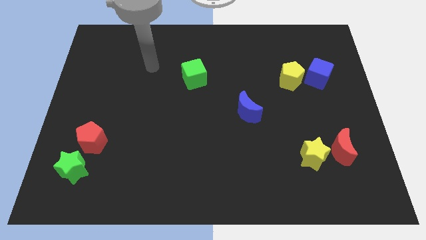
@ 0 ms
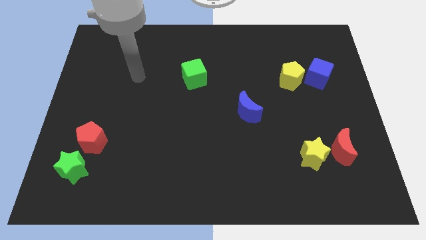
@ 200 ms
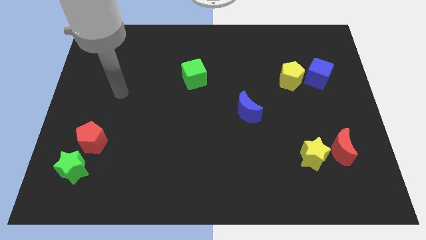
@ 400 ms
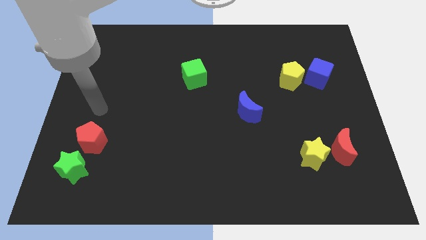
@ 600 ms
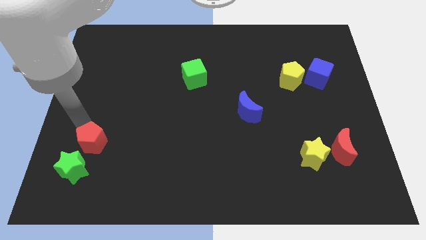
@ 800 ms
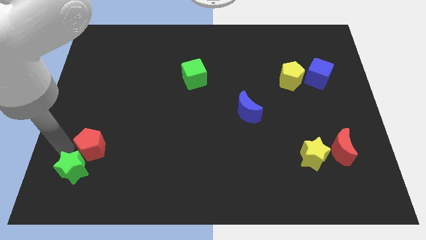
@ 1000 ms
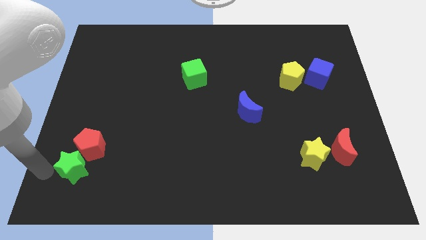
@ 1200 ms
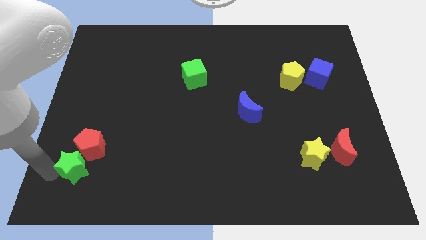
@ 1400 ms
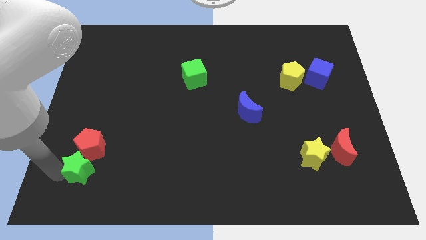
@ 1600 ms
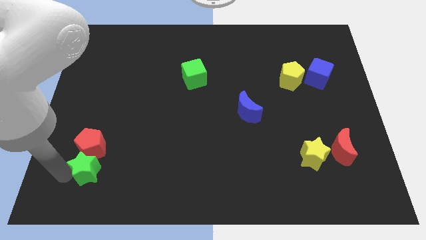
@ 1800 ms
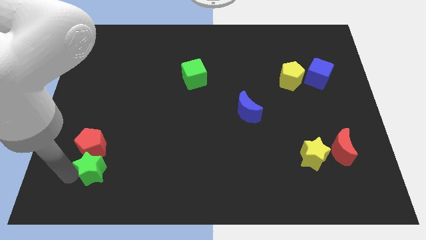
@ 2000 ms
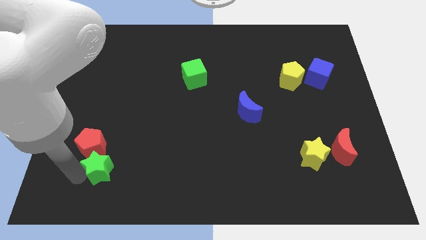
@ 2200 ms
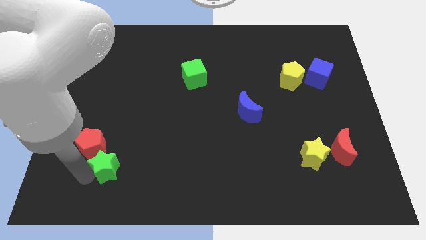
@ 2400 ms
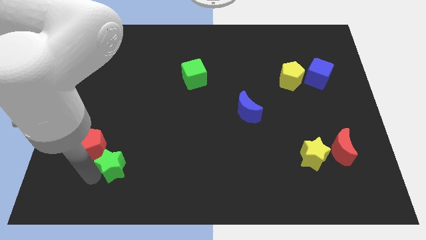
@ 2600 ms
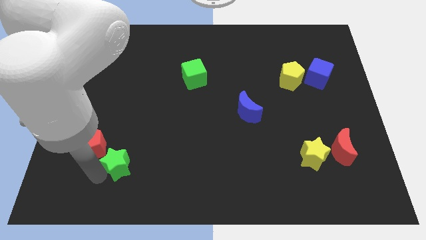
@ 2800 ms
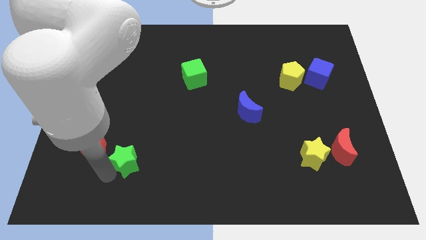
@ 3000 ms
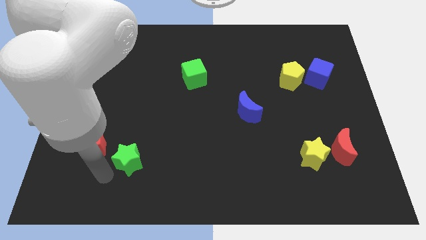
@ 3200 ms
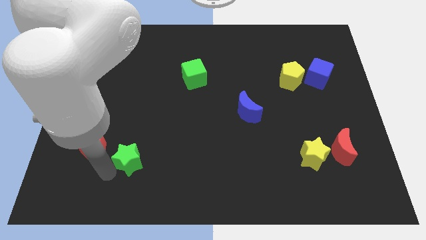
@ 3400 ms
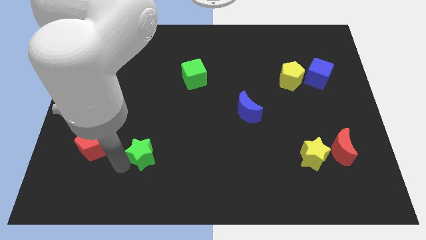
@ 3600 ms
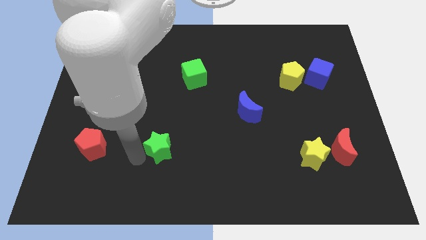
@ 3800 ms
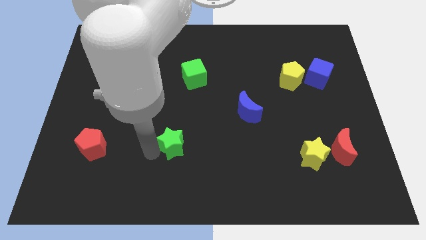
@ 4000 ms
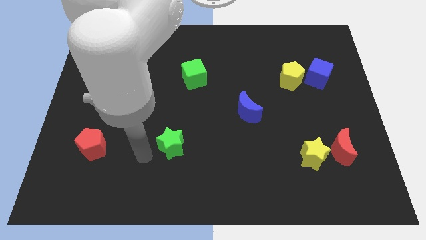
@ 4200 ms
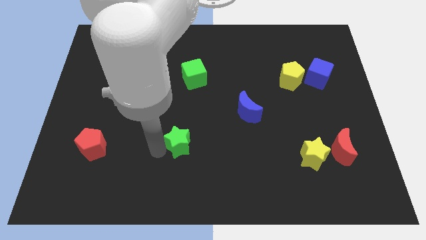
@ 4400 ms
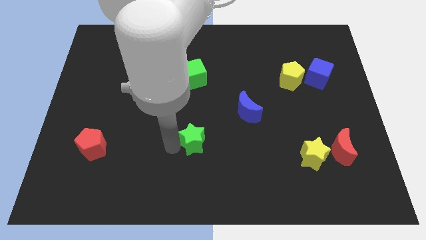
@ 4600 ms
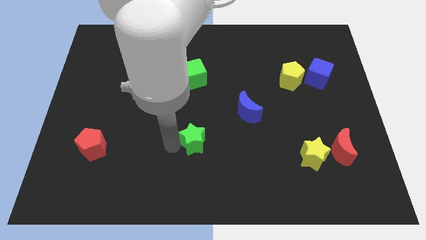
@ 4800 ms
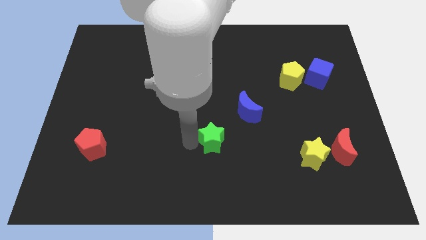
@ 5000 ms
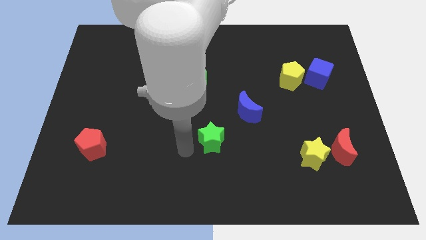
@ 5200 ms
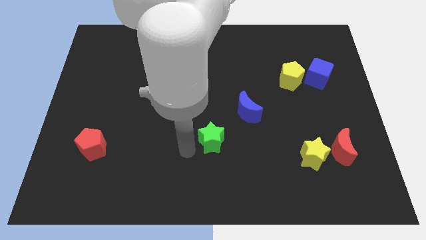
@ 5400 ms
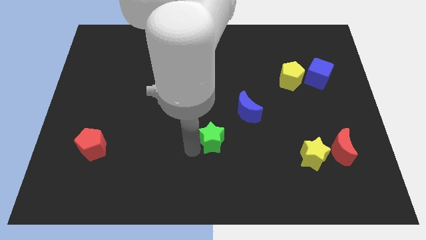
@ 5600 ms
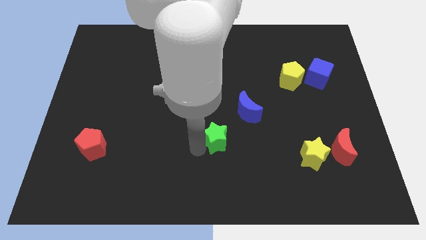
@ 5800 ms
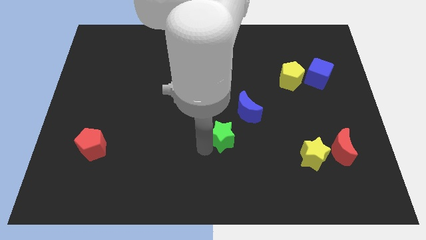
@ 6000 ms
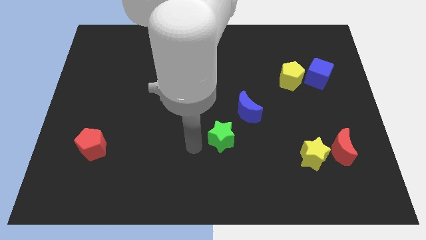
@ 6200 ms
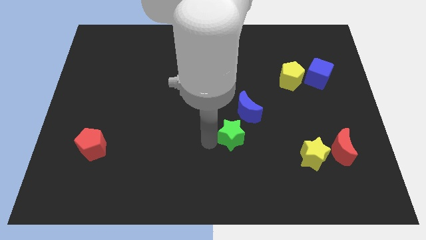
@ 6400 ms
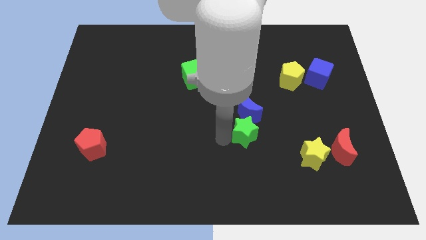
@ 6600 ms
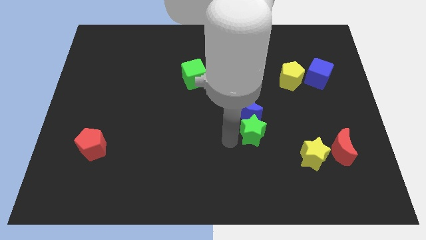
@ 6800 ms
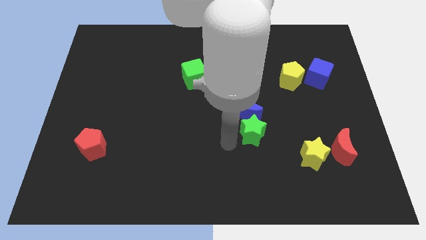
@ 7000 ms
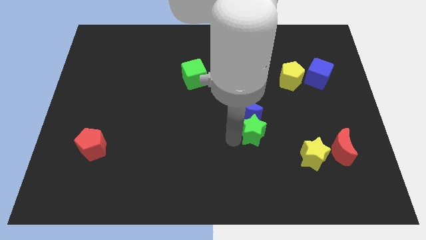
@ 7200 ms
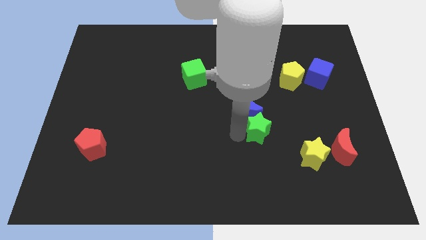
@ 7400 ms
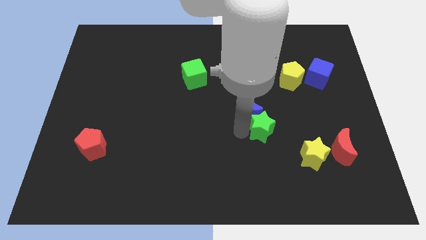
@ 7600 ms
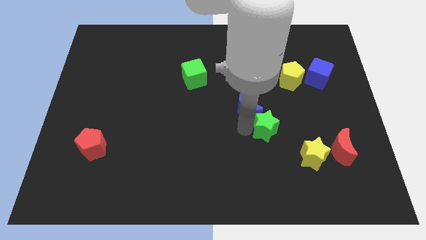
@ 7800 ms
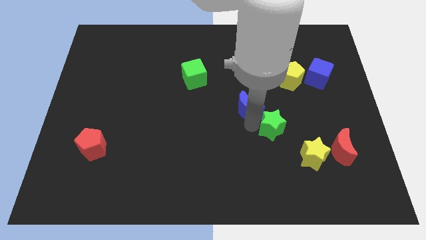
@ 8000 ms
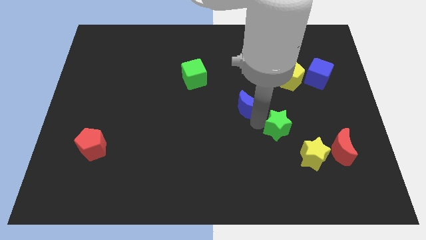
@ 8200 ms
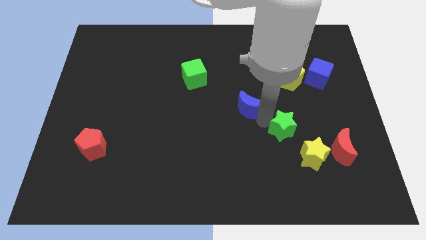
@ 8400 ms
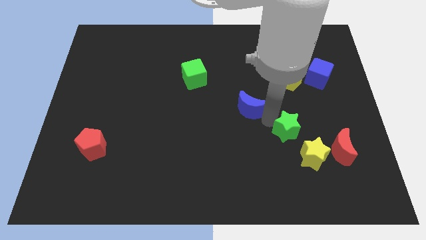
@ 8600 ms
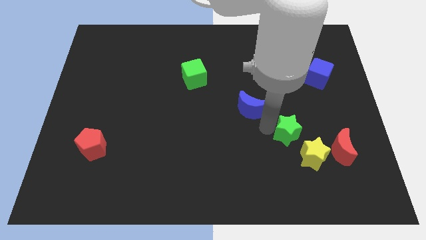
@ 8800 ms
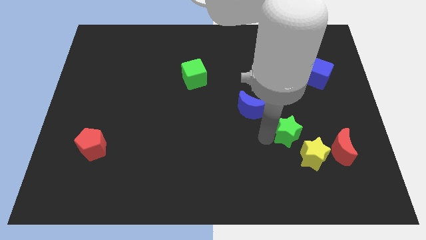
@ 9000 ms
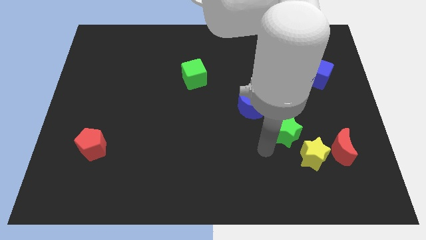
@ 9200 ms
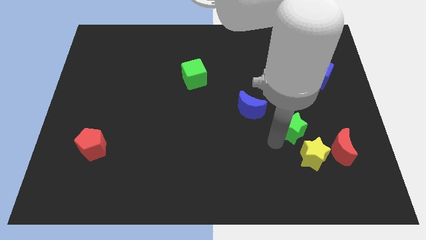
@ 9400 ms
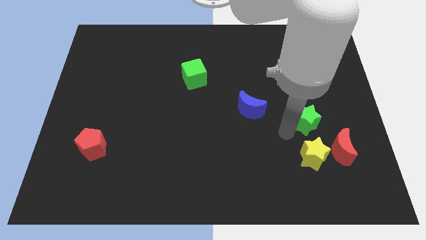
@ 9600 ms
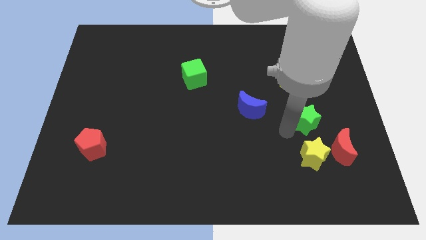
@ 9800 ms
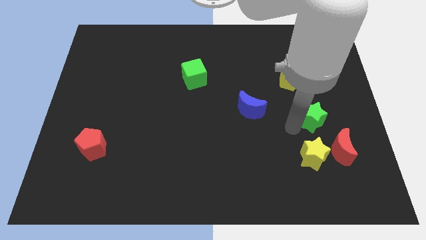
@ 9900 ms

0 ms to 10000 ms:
put the green star below the blue cube
